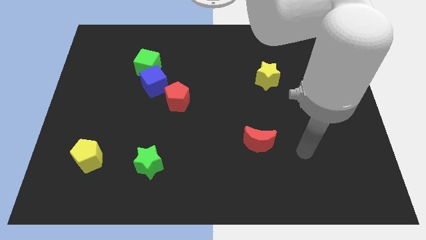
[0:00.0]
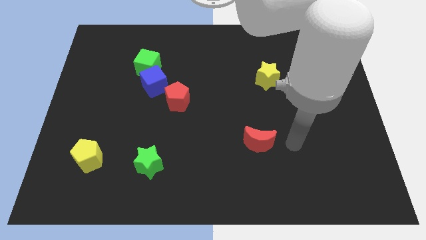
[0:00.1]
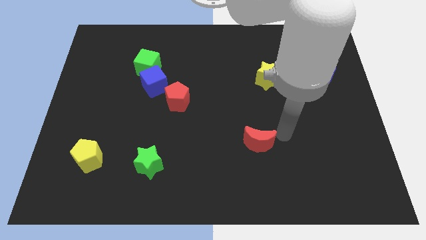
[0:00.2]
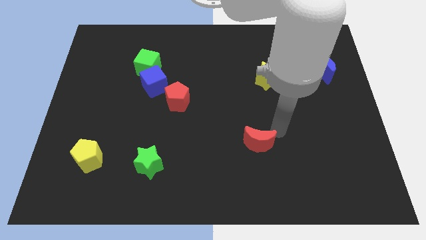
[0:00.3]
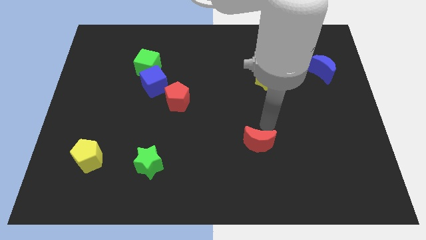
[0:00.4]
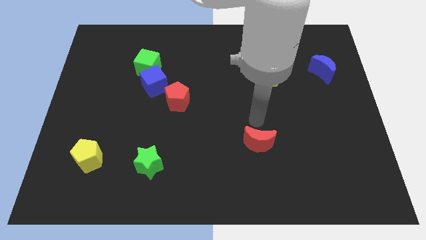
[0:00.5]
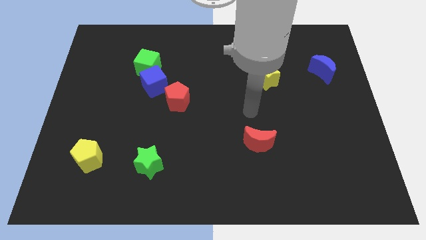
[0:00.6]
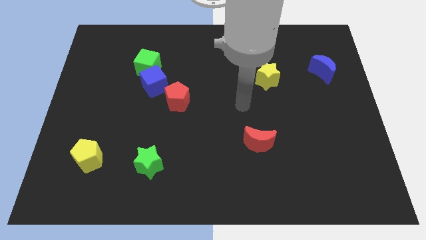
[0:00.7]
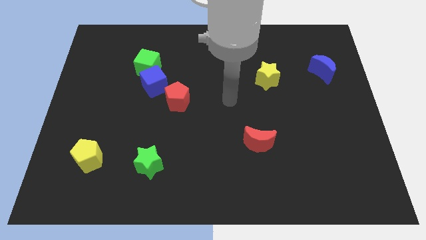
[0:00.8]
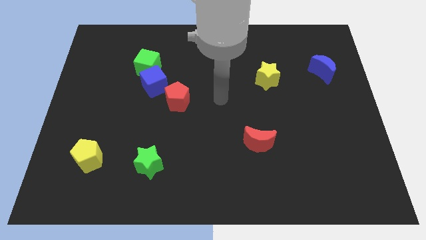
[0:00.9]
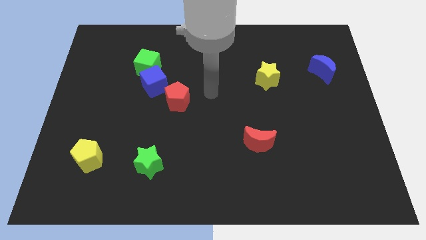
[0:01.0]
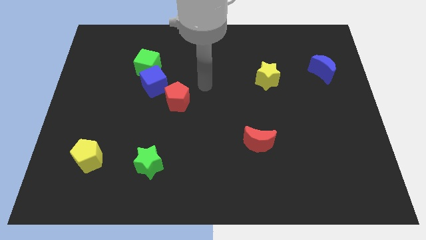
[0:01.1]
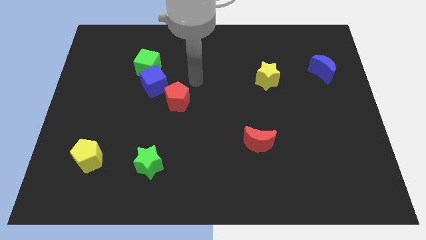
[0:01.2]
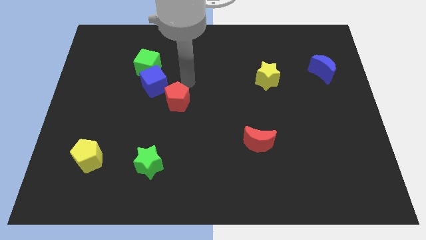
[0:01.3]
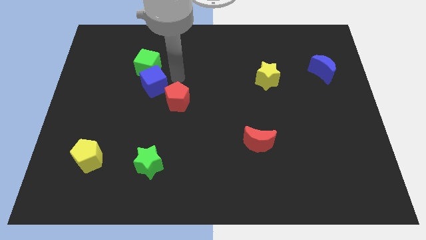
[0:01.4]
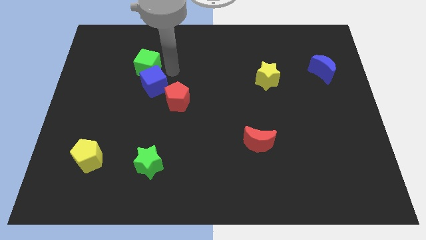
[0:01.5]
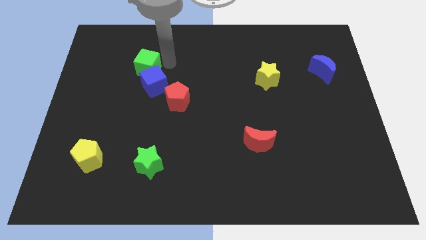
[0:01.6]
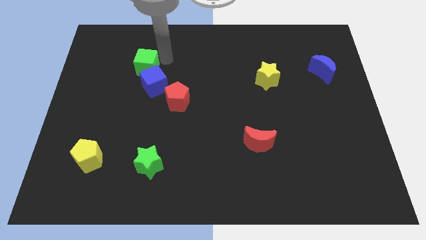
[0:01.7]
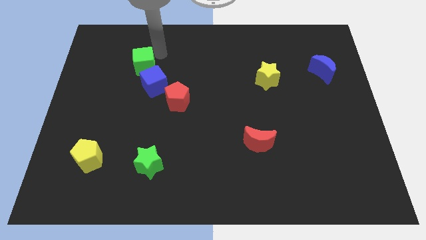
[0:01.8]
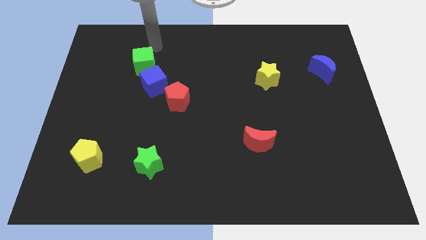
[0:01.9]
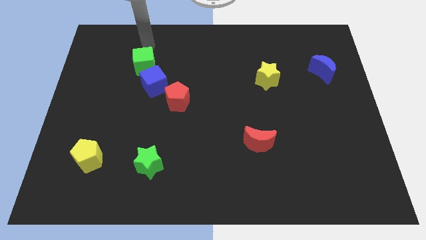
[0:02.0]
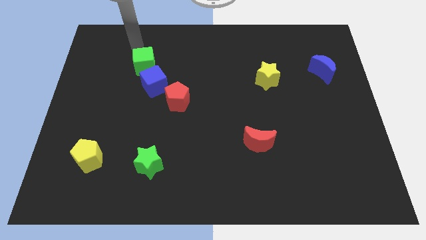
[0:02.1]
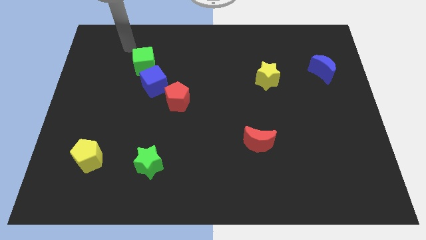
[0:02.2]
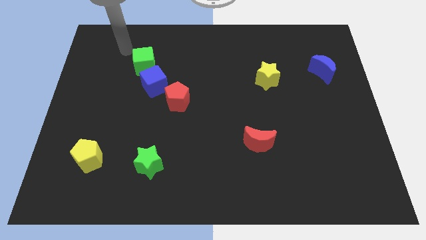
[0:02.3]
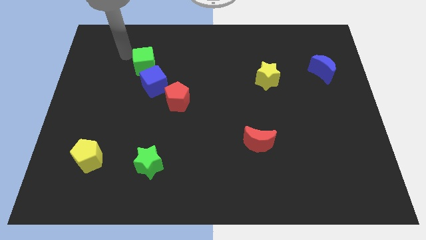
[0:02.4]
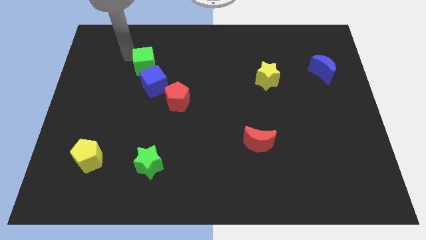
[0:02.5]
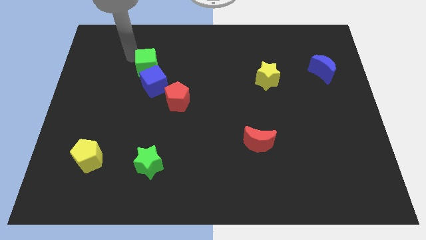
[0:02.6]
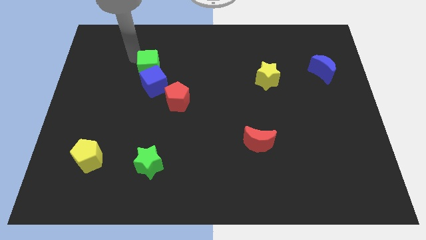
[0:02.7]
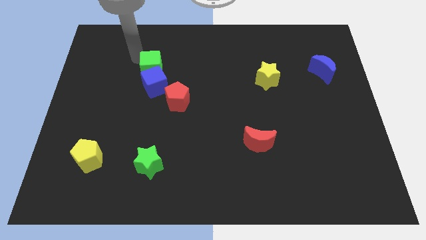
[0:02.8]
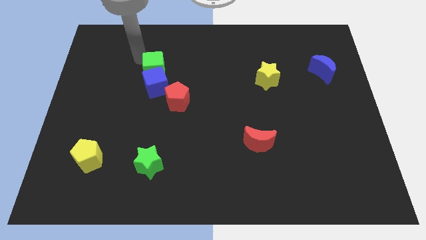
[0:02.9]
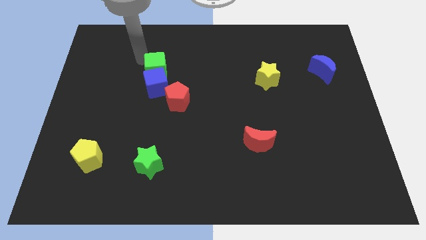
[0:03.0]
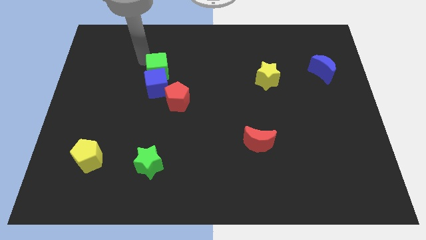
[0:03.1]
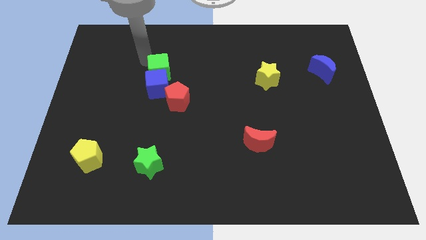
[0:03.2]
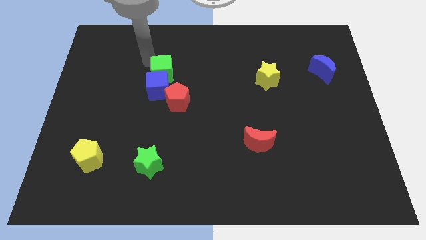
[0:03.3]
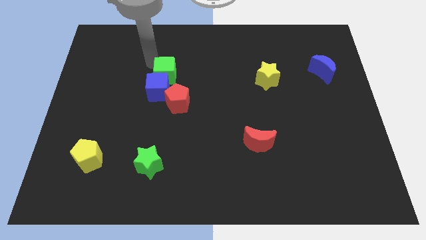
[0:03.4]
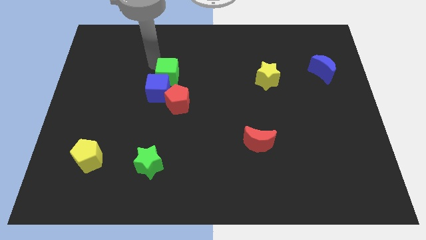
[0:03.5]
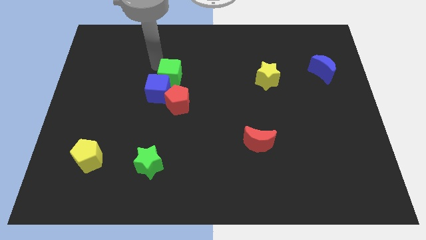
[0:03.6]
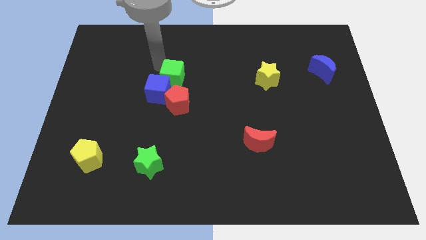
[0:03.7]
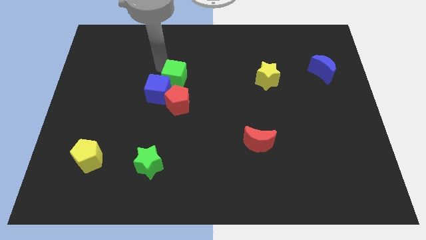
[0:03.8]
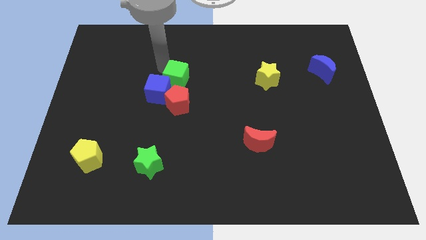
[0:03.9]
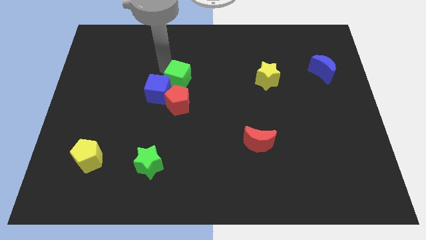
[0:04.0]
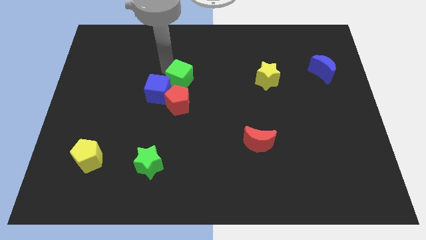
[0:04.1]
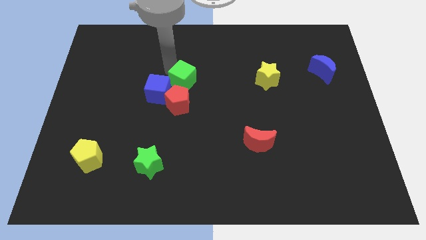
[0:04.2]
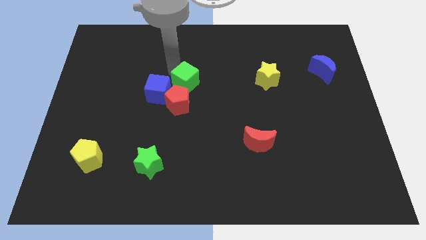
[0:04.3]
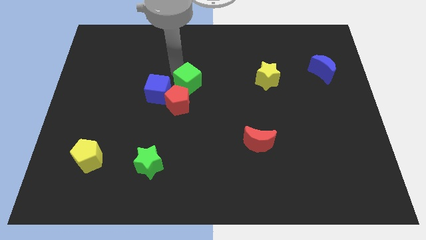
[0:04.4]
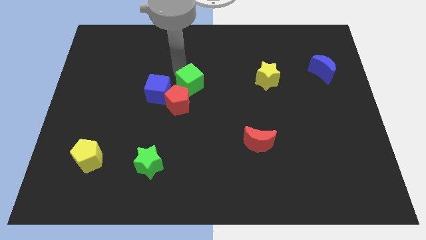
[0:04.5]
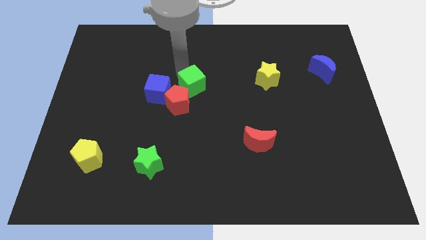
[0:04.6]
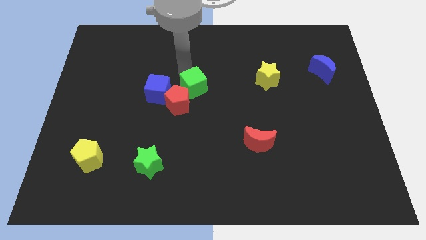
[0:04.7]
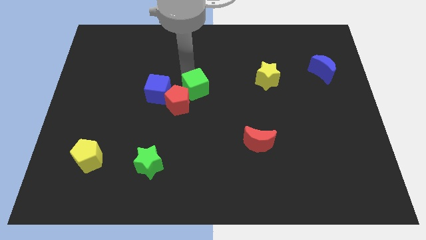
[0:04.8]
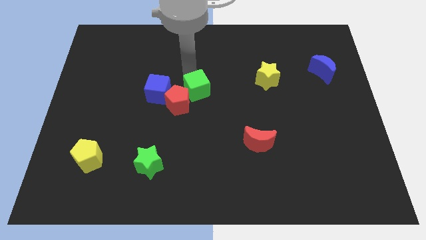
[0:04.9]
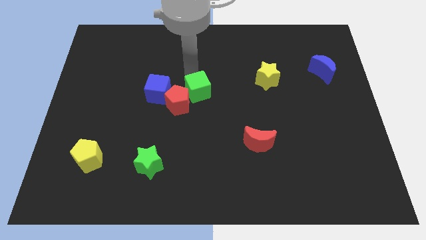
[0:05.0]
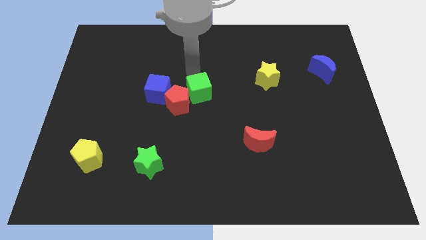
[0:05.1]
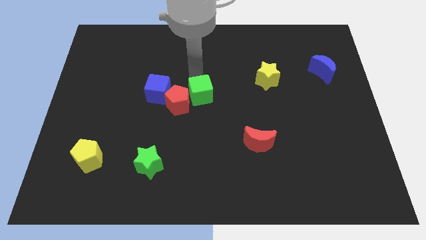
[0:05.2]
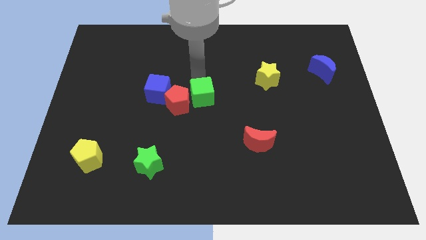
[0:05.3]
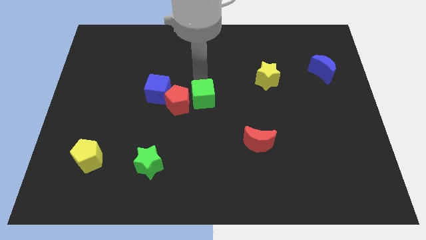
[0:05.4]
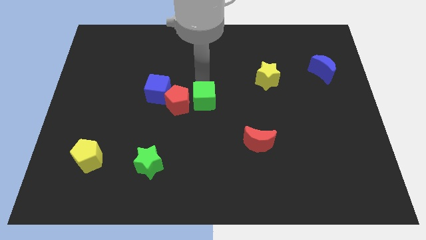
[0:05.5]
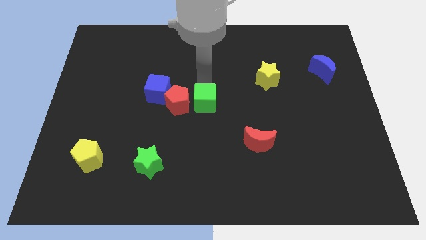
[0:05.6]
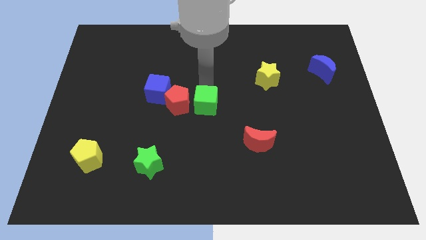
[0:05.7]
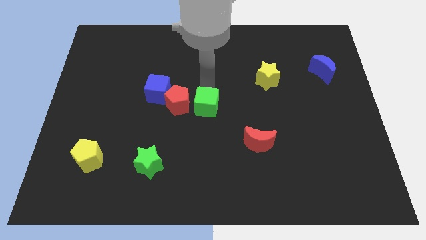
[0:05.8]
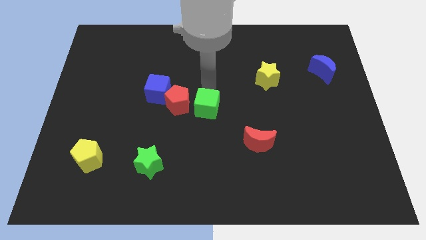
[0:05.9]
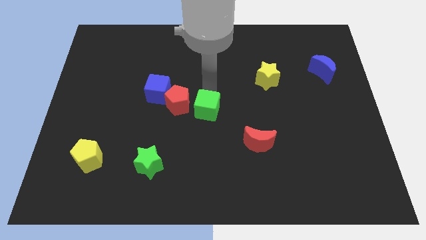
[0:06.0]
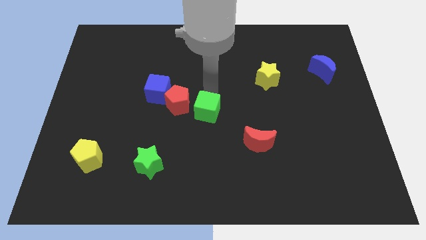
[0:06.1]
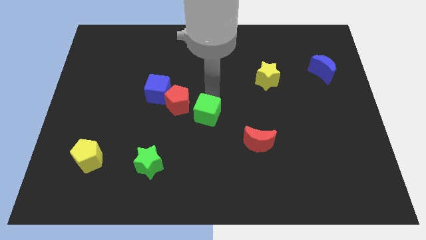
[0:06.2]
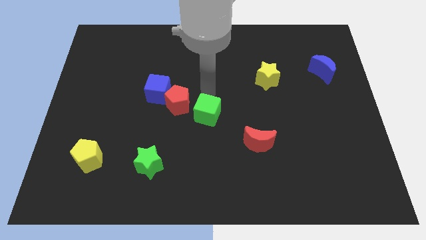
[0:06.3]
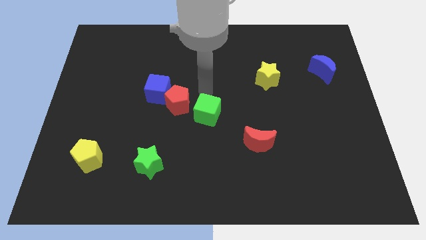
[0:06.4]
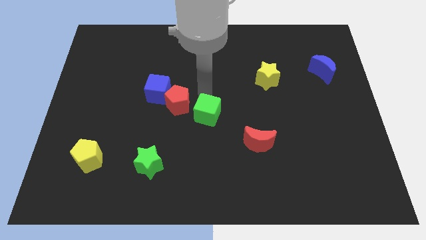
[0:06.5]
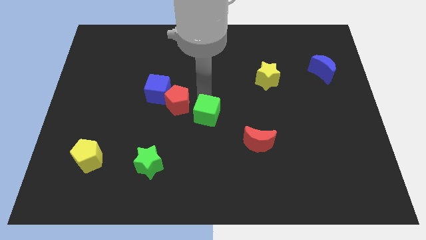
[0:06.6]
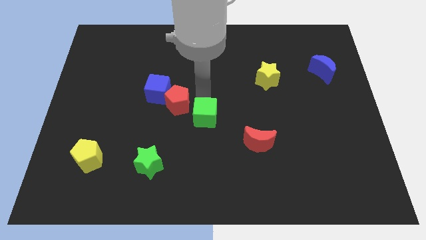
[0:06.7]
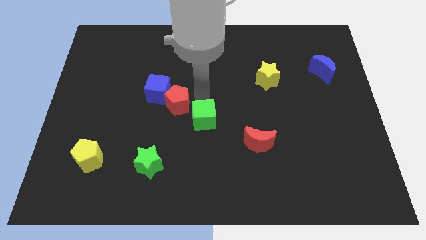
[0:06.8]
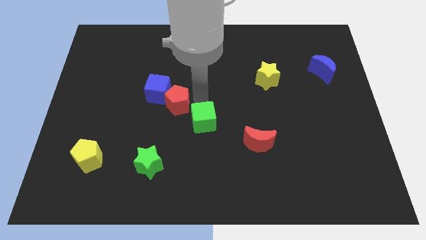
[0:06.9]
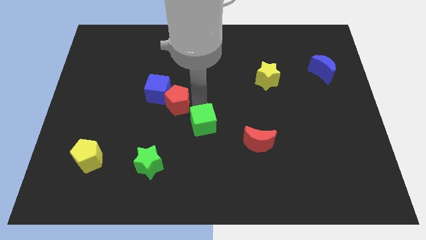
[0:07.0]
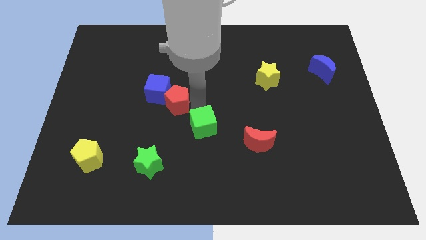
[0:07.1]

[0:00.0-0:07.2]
move the green cube left of the red moon

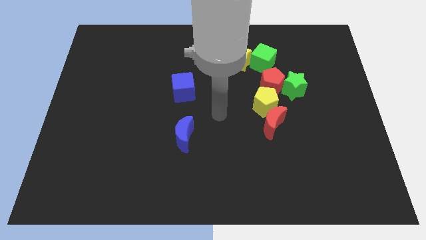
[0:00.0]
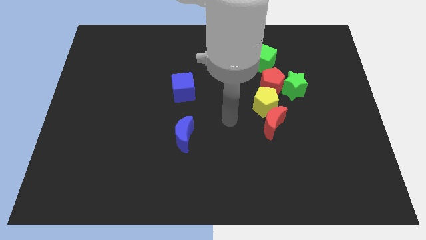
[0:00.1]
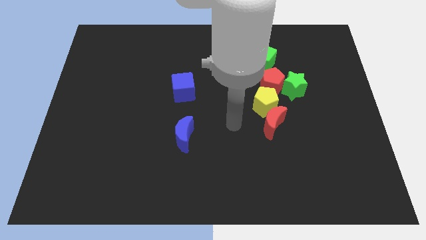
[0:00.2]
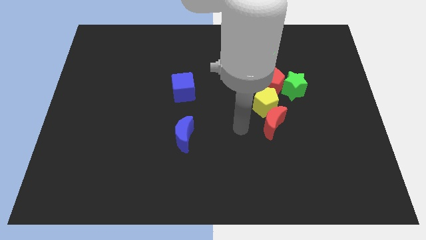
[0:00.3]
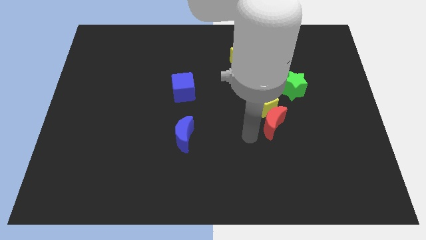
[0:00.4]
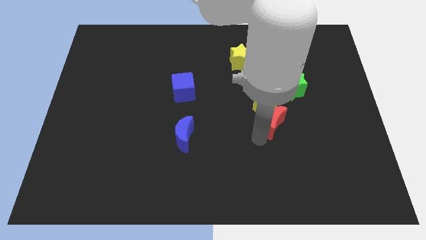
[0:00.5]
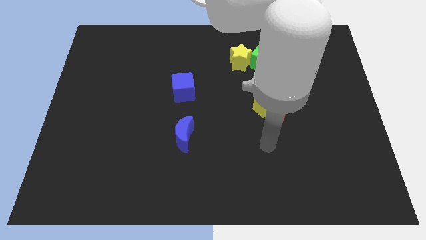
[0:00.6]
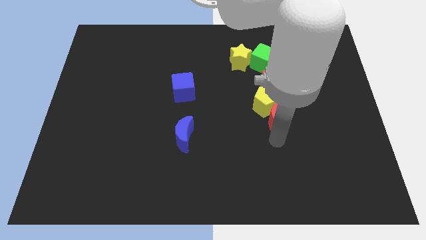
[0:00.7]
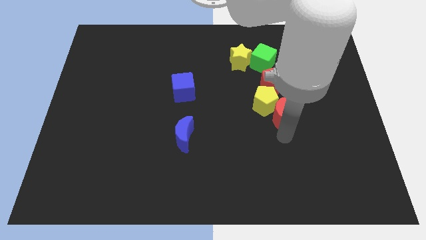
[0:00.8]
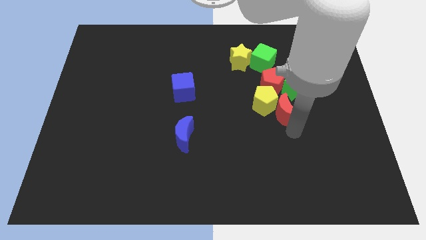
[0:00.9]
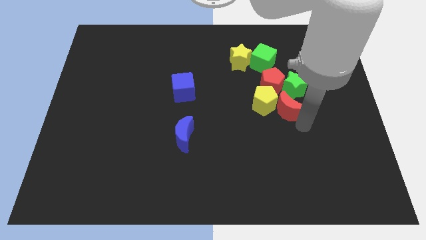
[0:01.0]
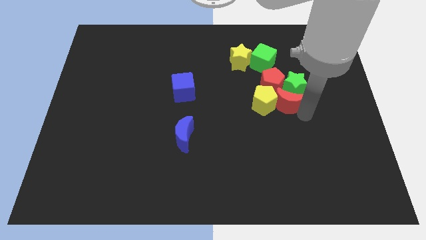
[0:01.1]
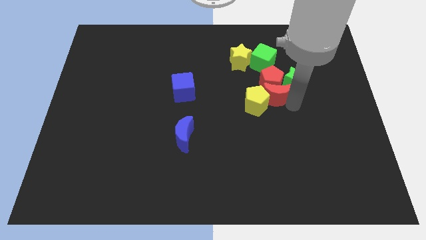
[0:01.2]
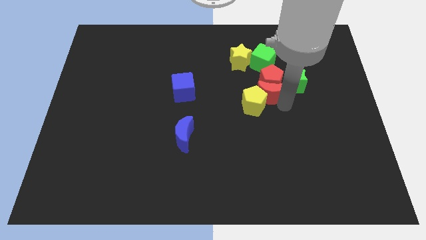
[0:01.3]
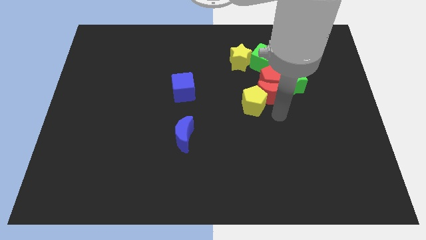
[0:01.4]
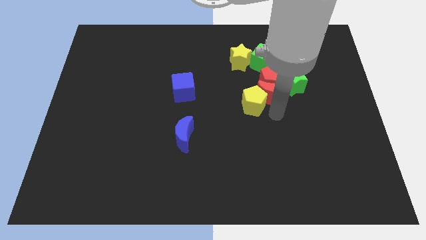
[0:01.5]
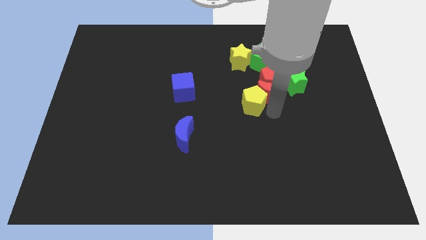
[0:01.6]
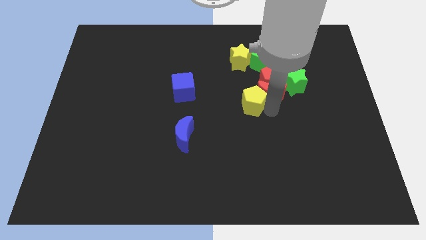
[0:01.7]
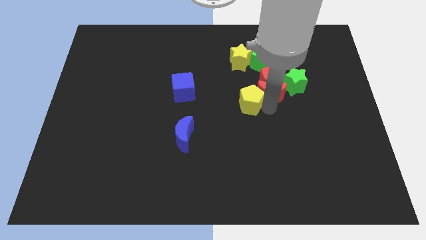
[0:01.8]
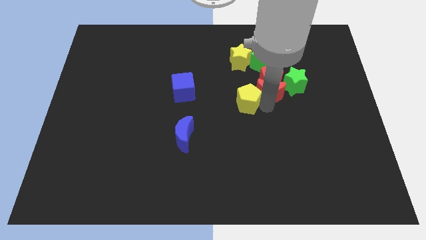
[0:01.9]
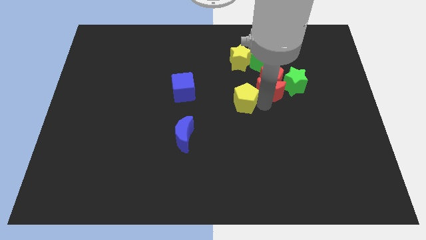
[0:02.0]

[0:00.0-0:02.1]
push the yellow pentagon to the right of the blue cube
